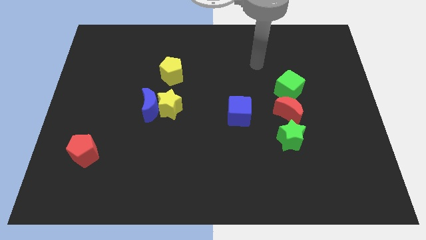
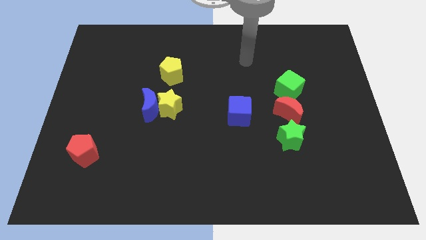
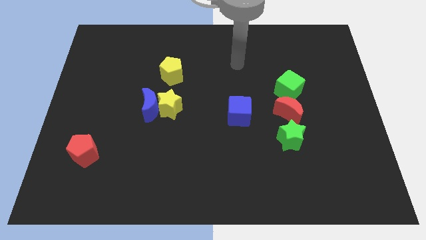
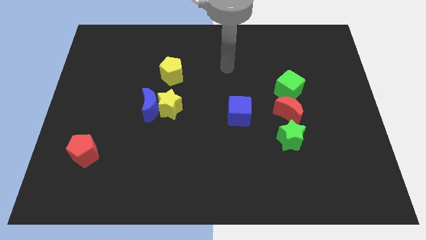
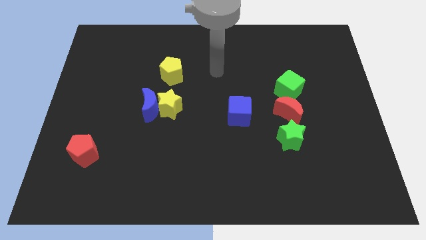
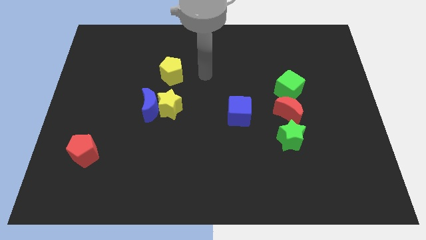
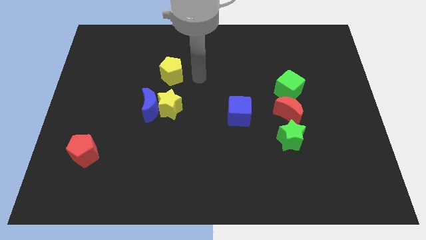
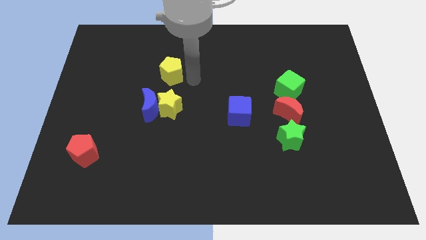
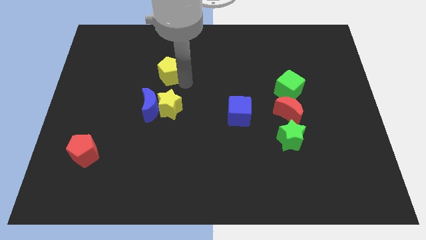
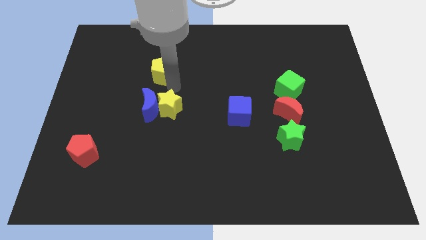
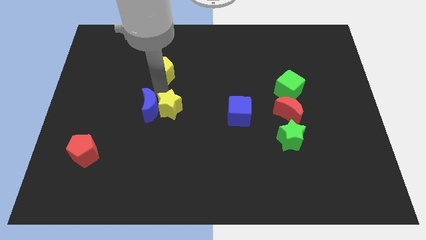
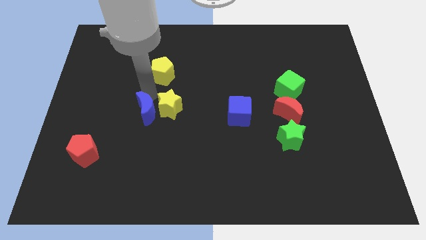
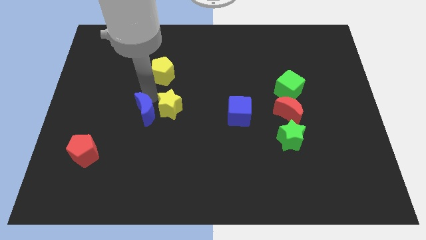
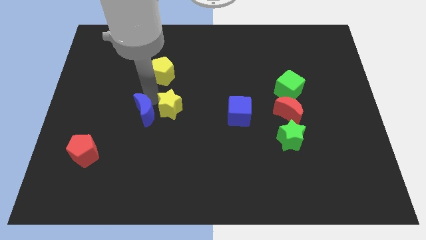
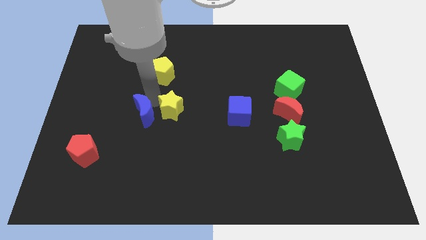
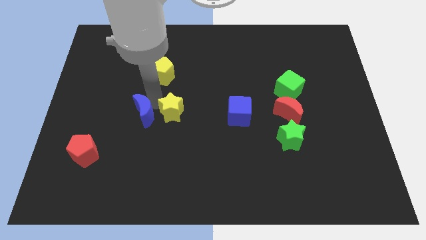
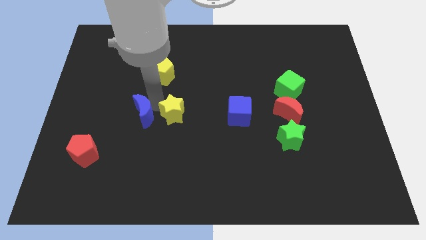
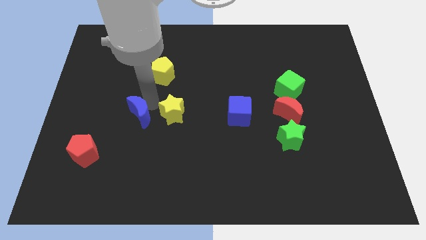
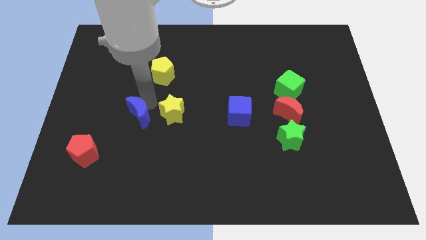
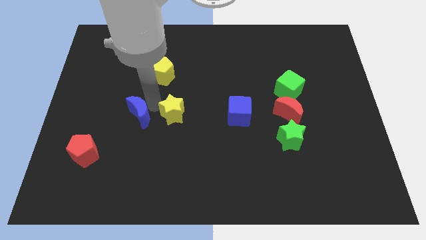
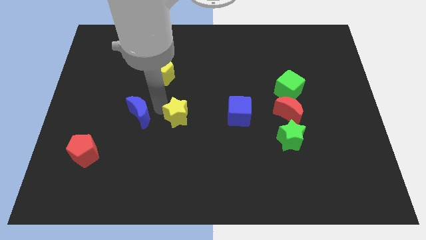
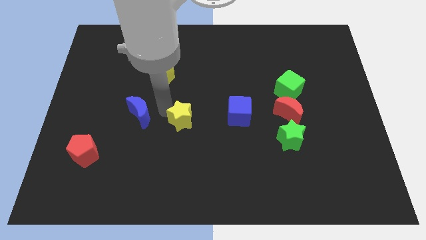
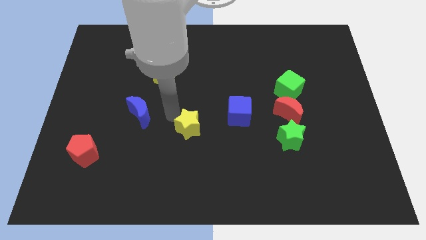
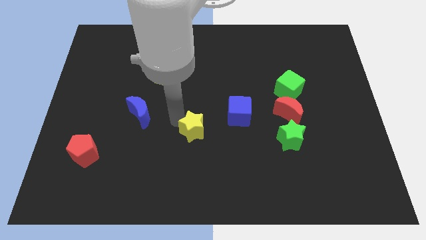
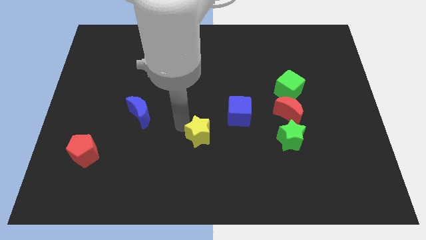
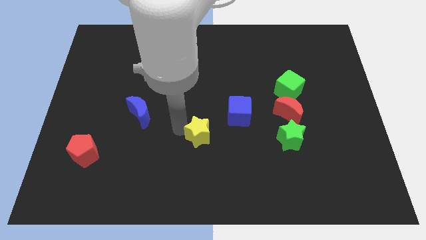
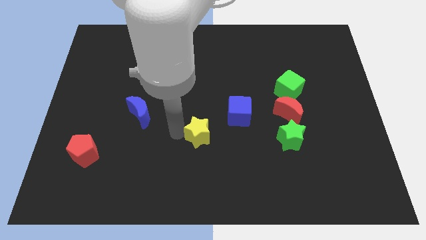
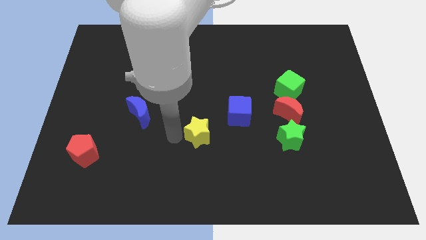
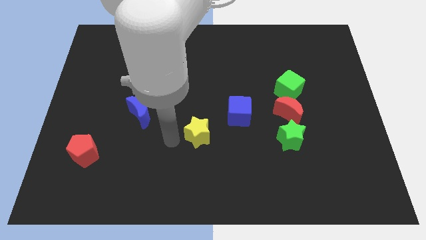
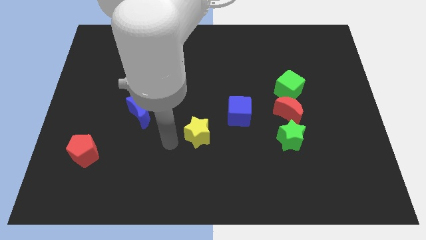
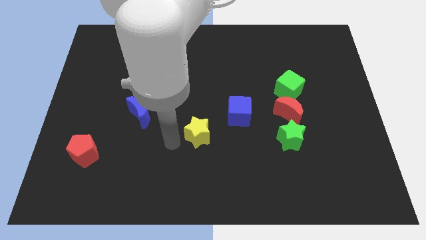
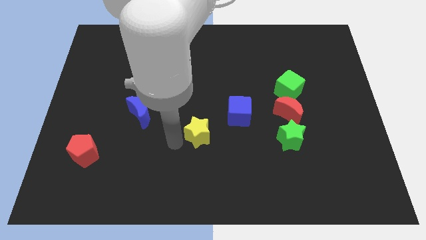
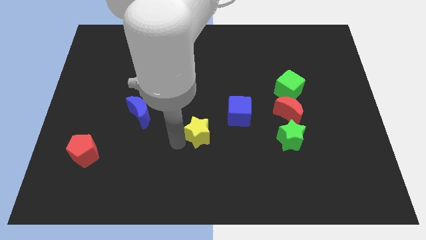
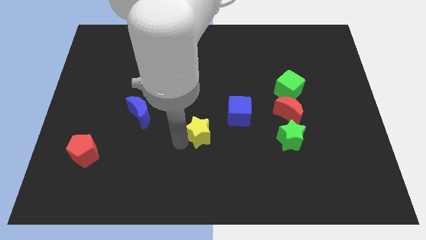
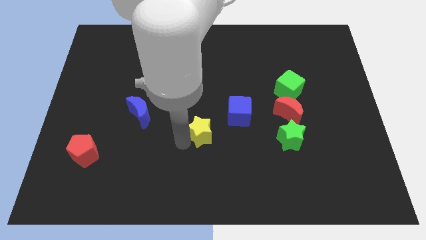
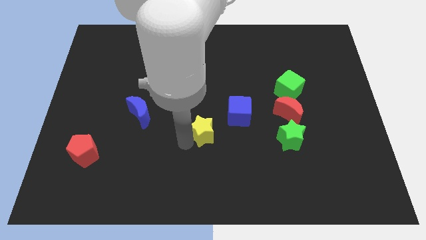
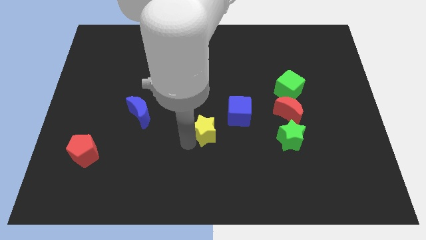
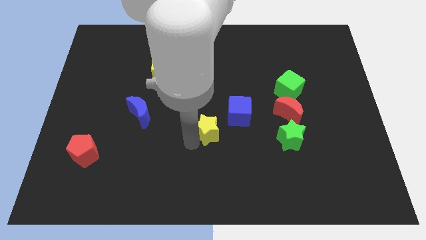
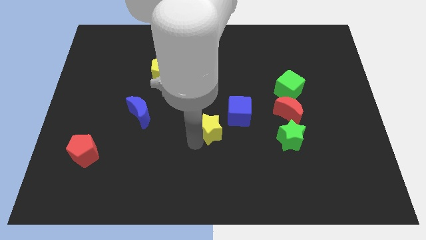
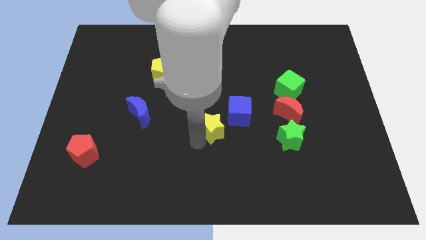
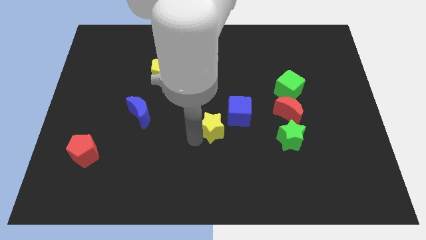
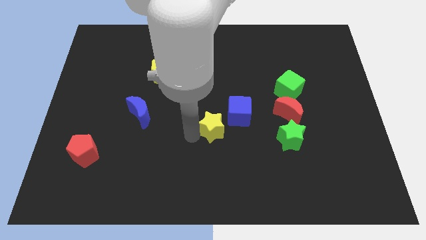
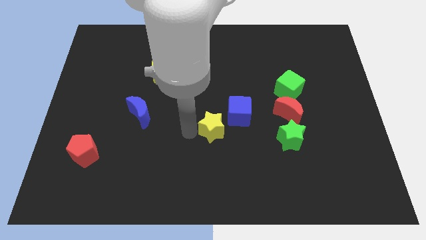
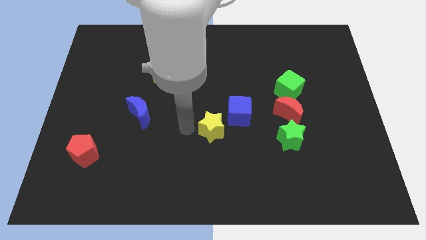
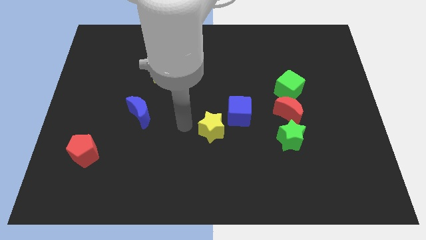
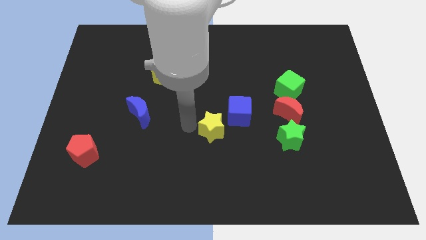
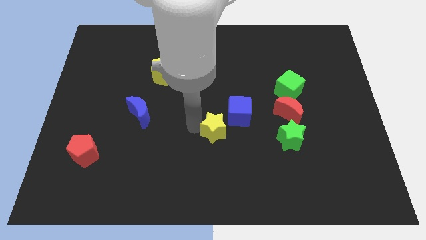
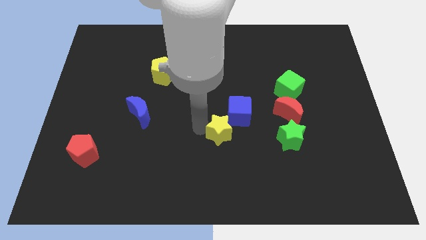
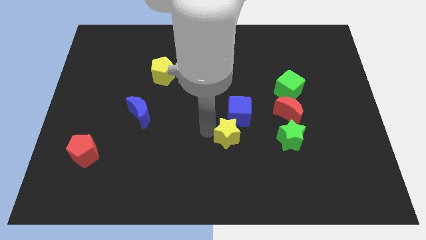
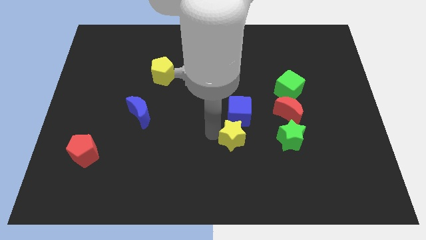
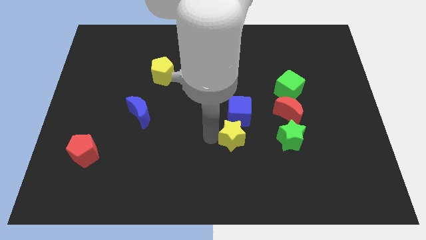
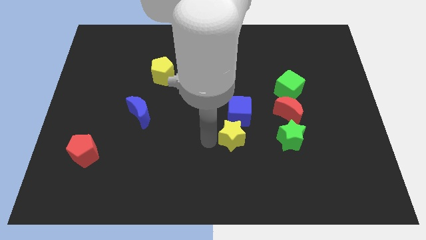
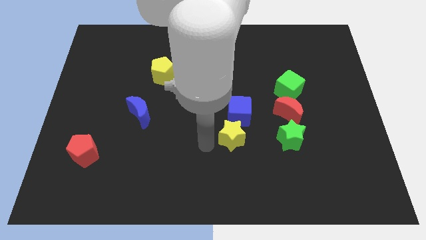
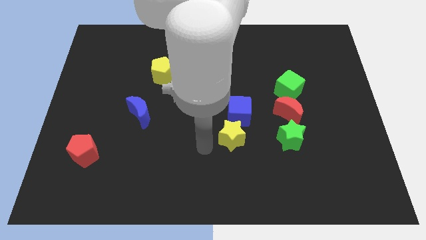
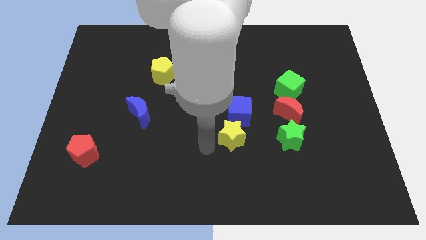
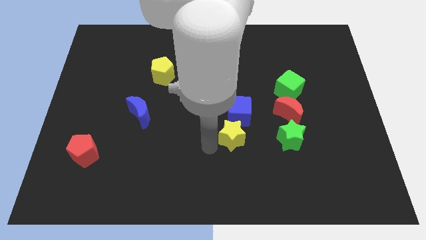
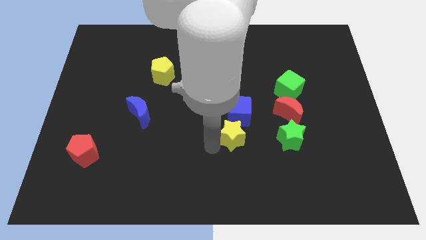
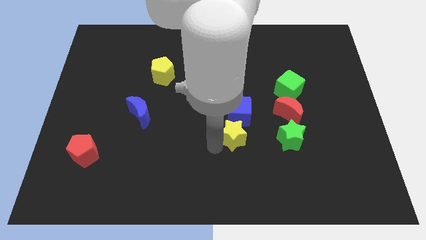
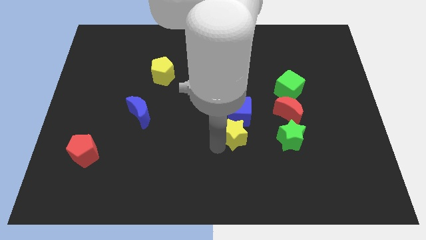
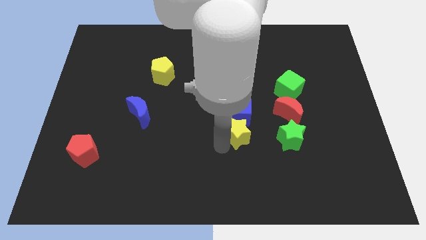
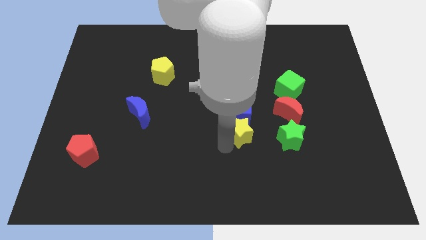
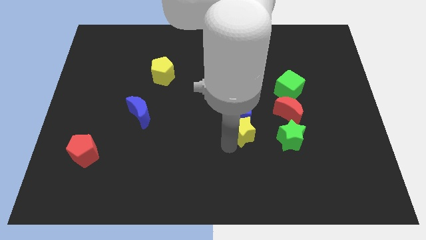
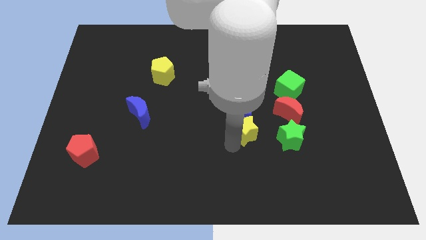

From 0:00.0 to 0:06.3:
push the yellow star to the bottom left side of the red moon
